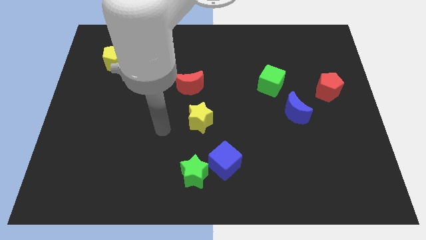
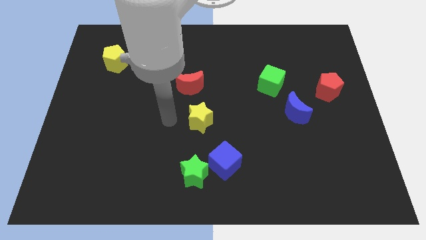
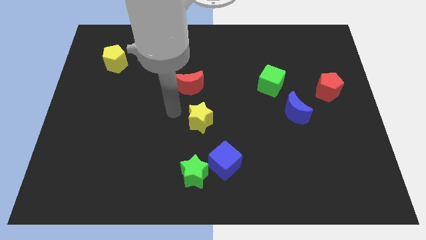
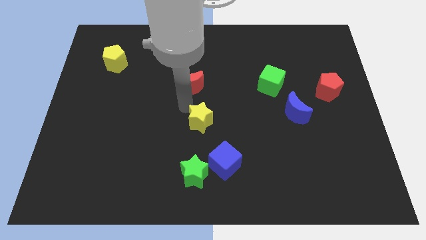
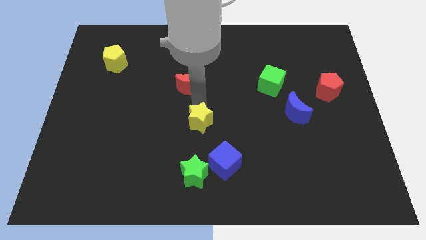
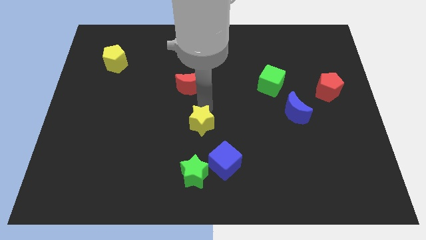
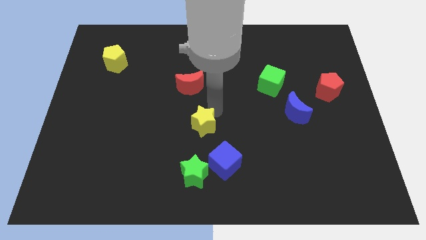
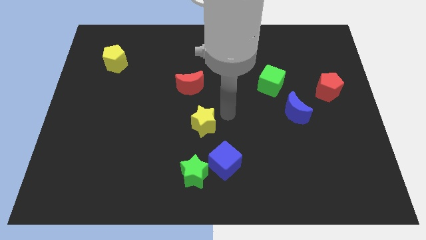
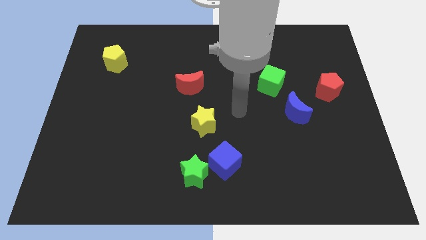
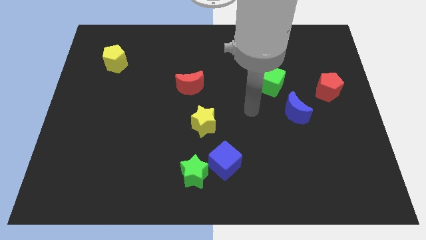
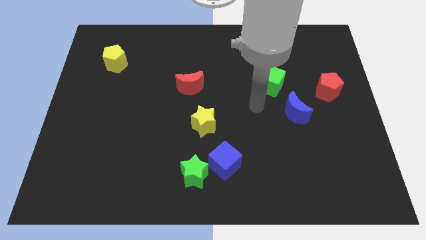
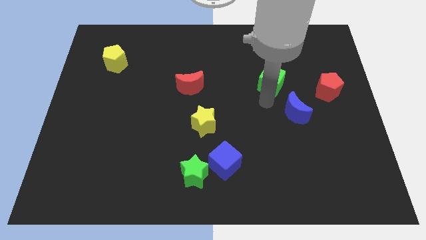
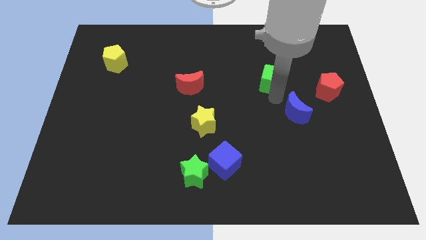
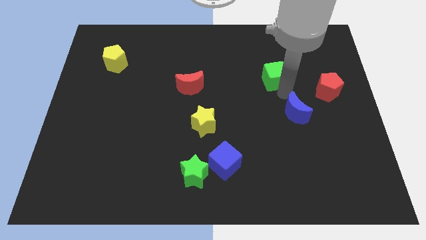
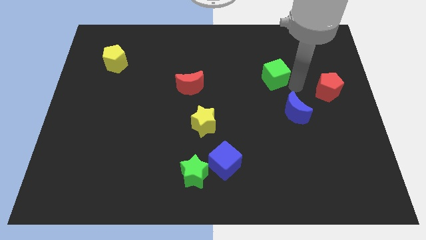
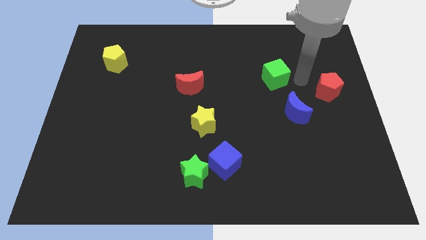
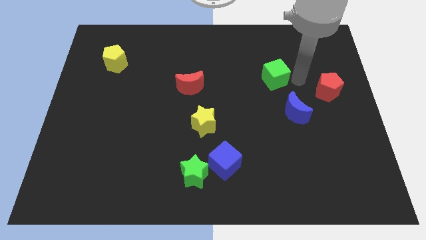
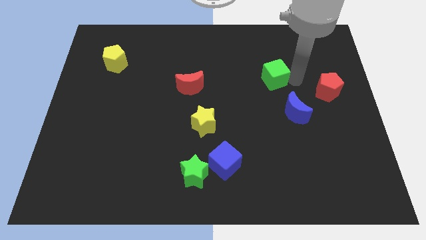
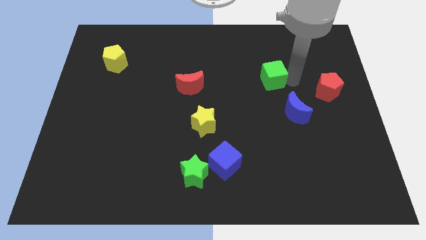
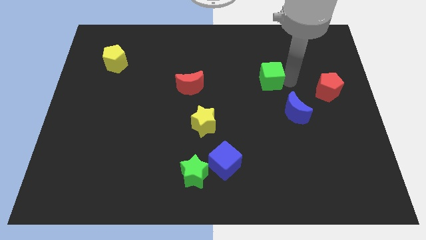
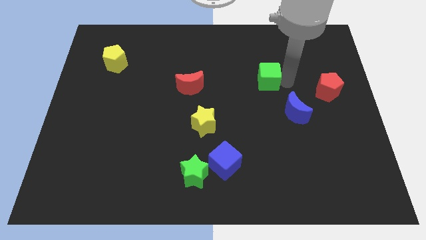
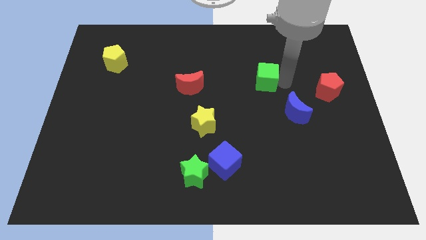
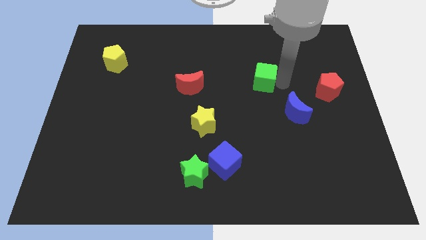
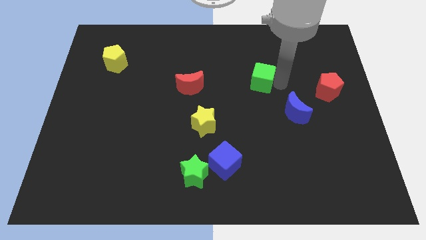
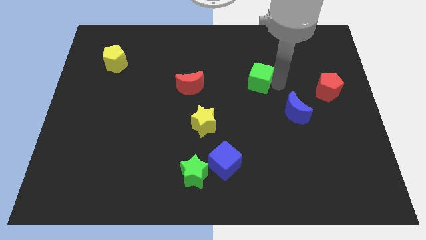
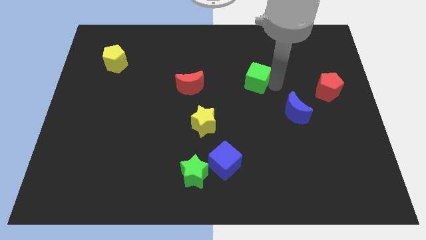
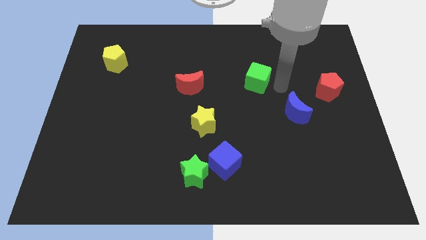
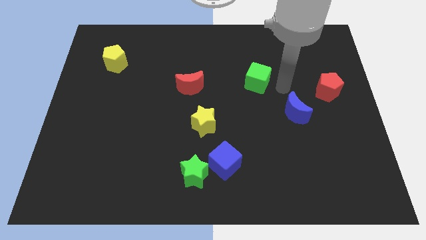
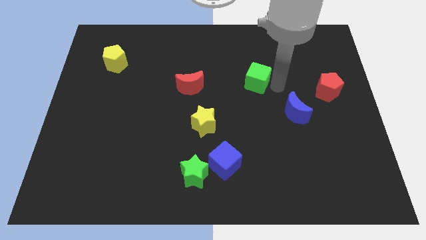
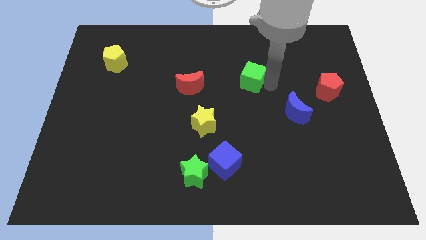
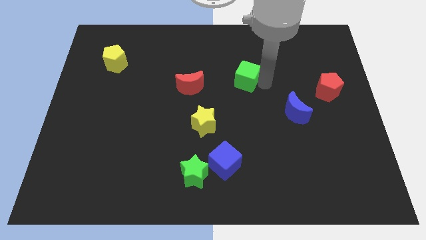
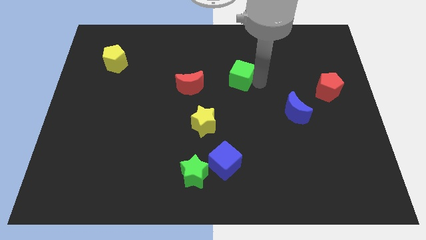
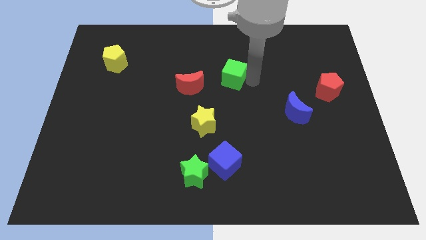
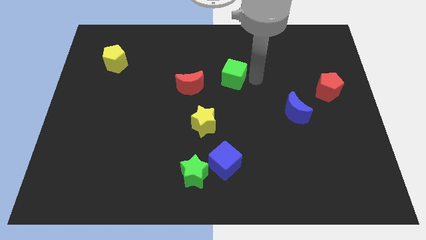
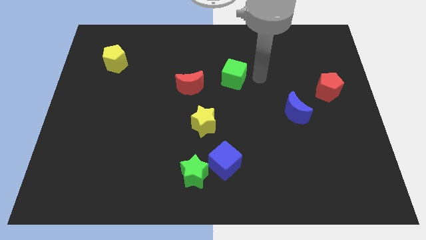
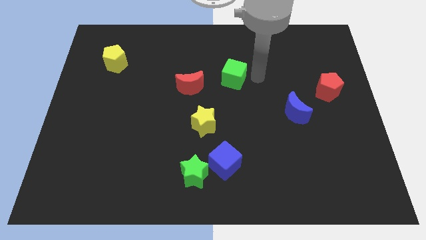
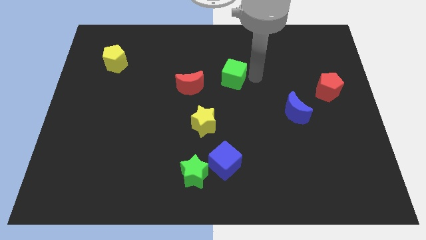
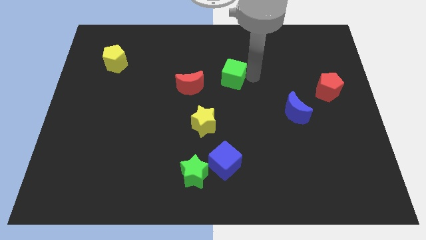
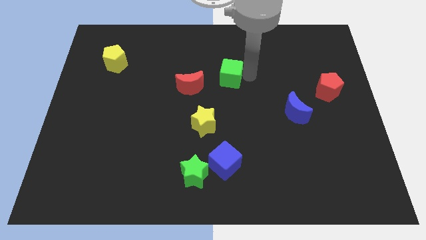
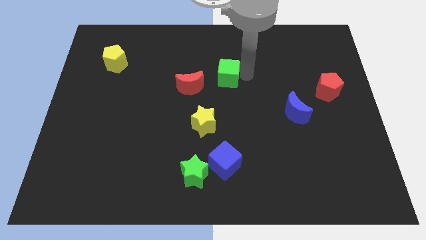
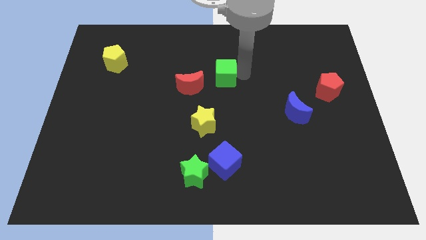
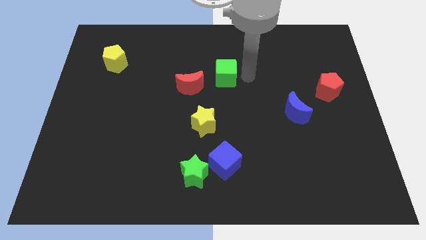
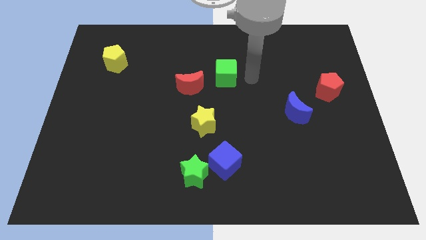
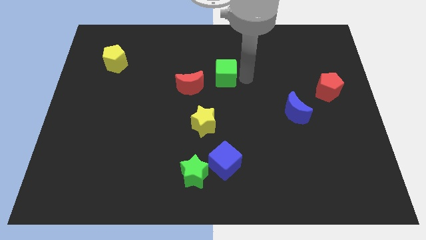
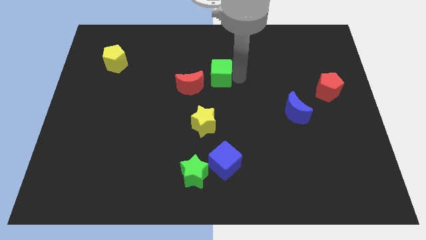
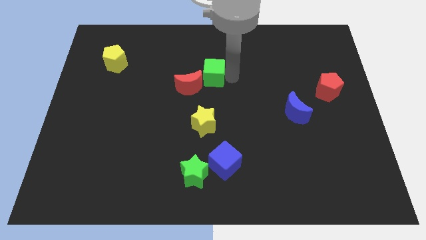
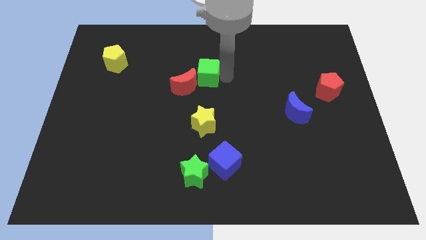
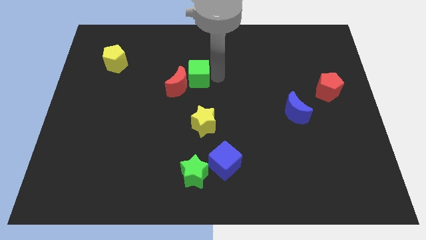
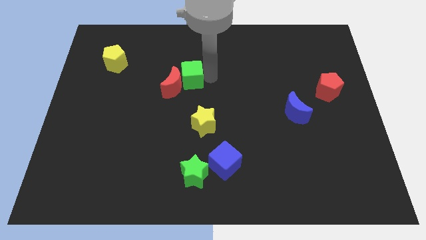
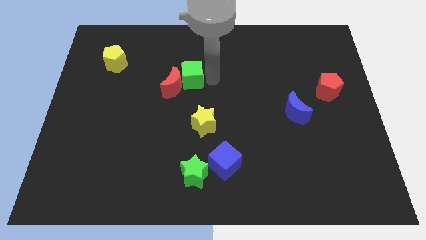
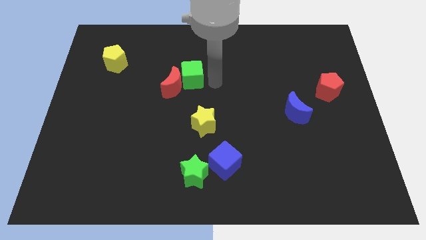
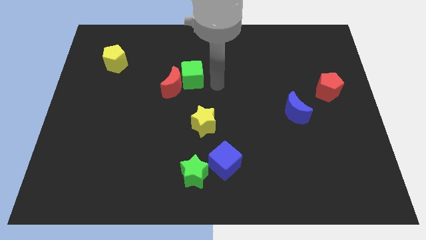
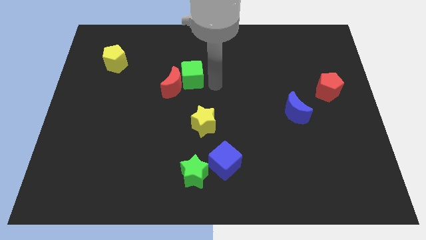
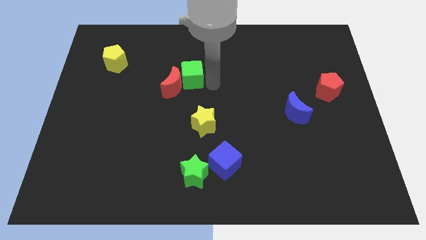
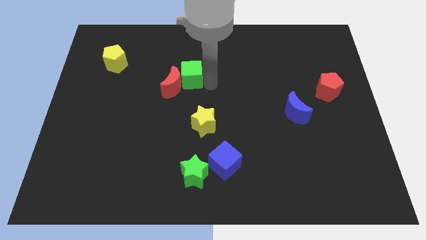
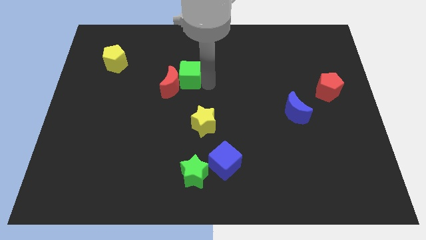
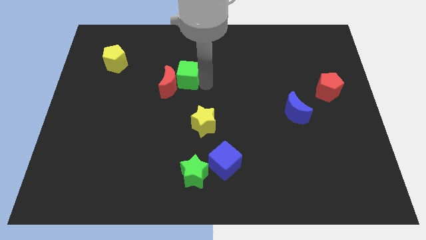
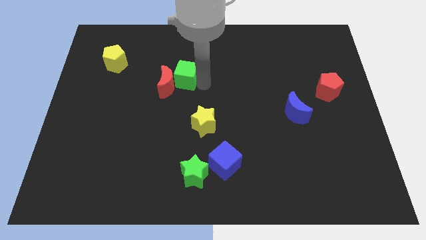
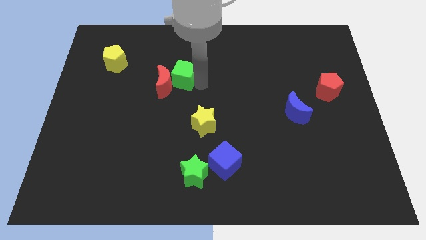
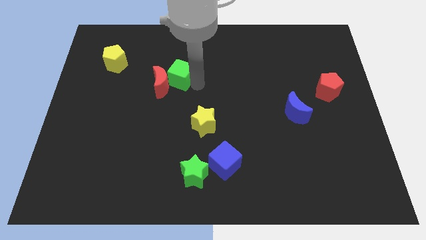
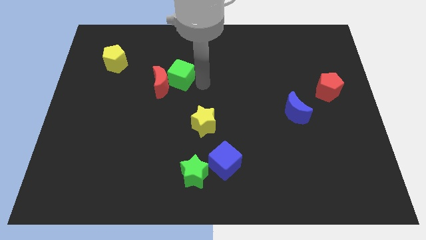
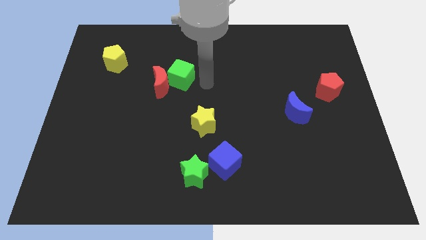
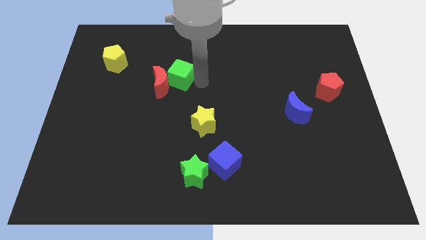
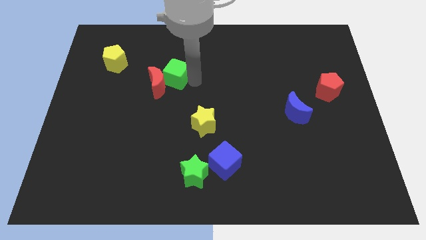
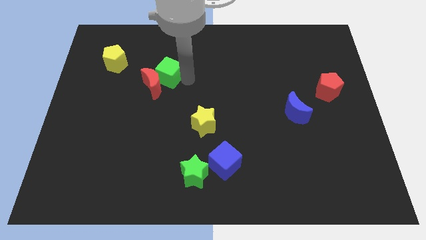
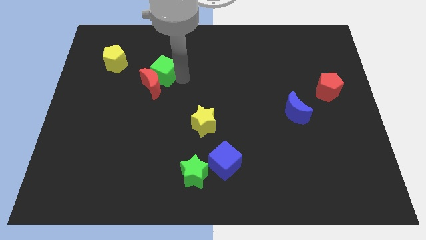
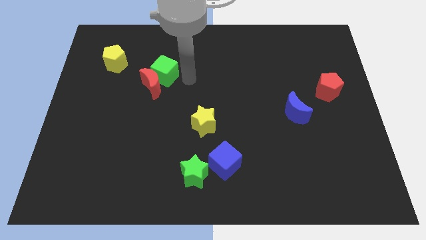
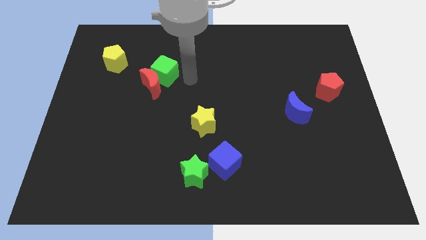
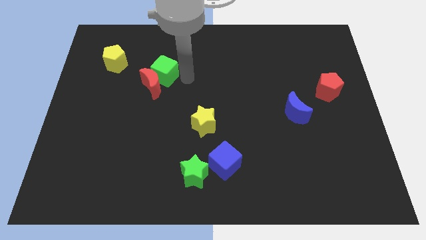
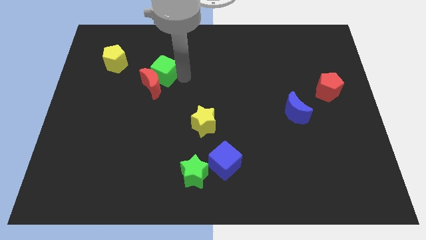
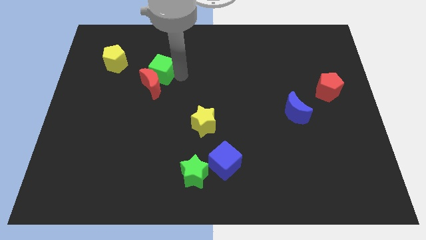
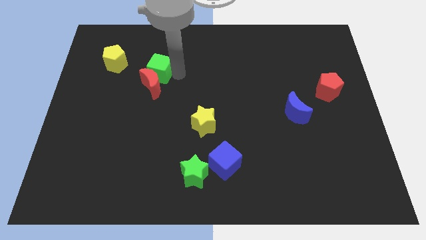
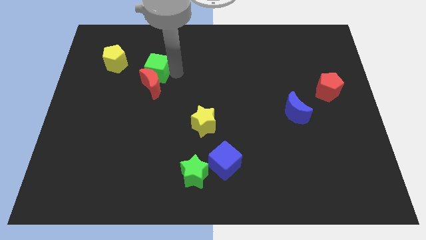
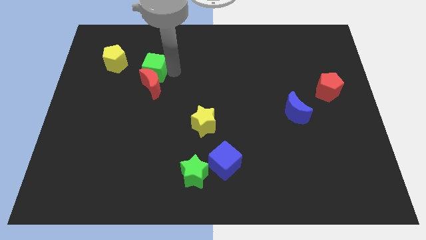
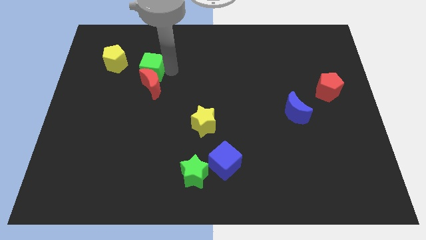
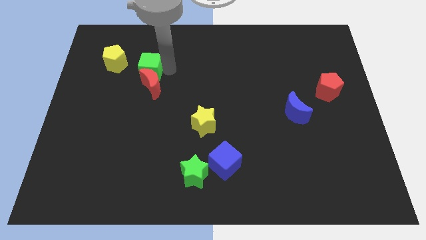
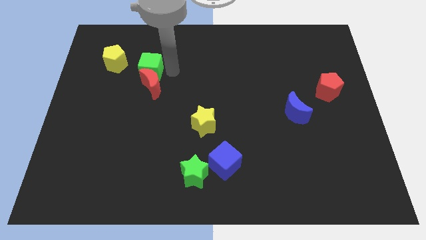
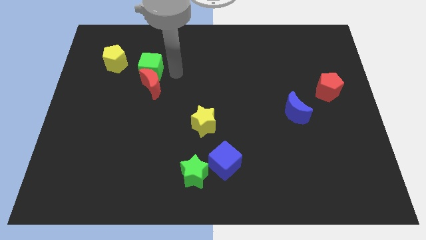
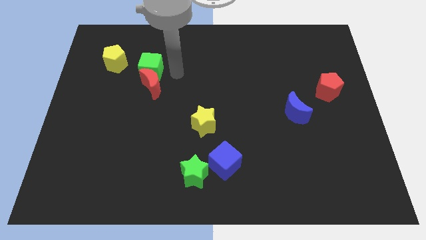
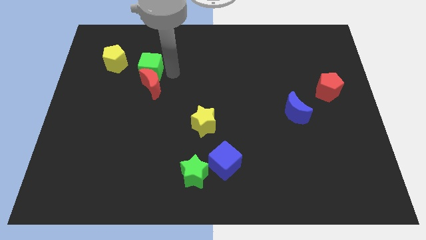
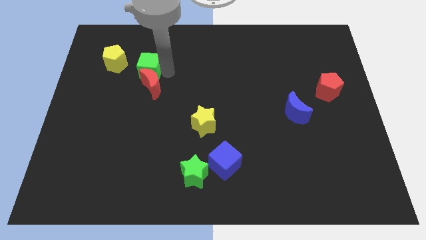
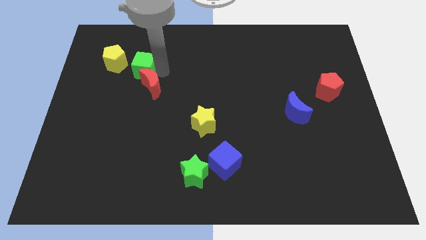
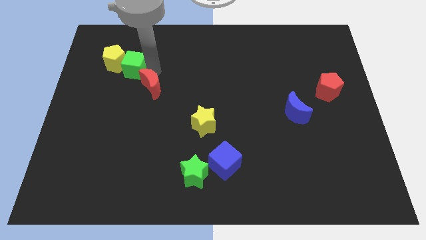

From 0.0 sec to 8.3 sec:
put the green cube to the yellow pentagon
